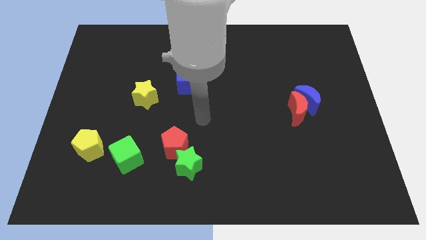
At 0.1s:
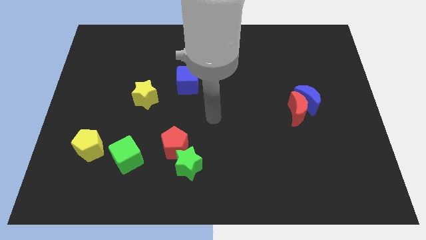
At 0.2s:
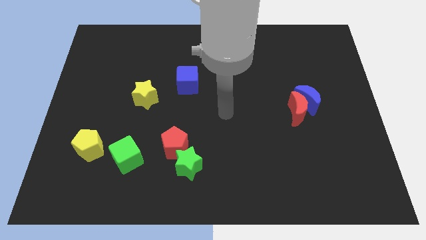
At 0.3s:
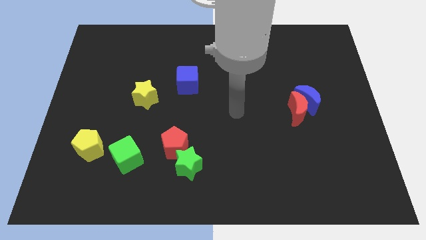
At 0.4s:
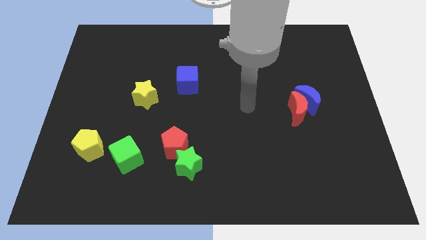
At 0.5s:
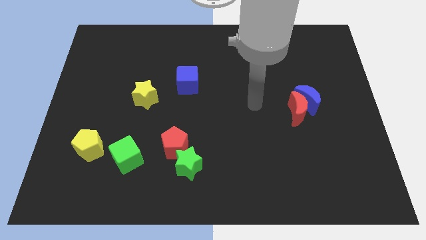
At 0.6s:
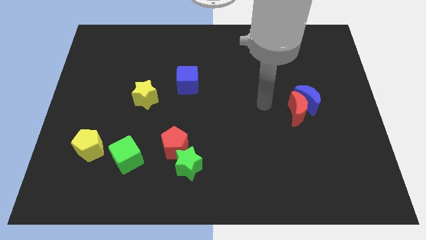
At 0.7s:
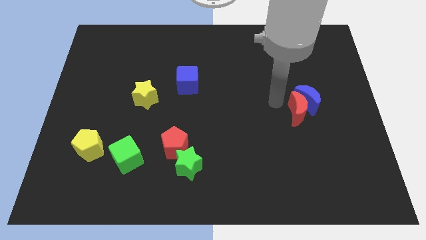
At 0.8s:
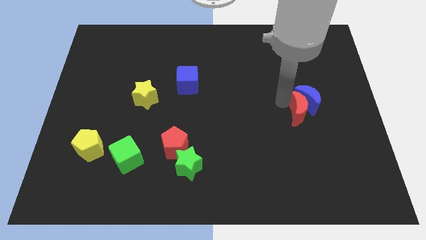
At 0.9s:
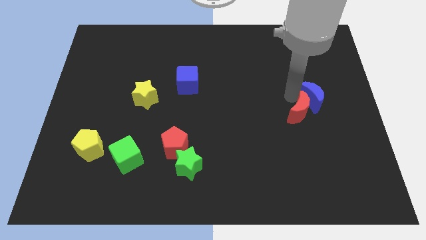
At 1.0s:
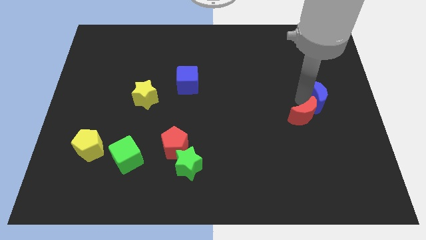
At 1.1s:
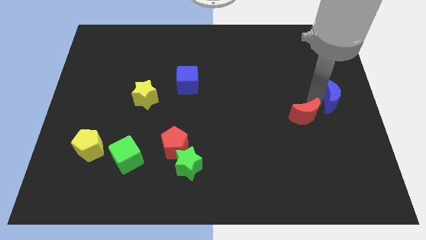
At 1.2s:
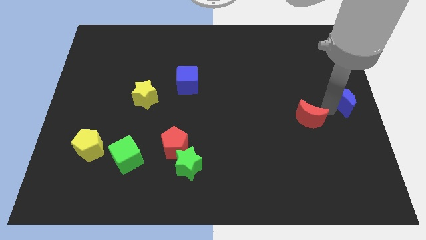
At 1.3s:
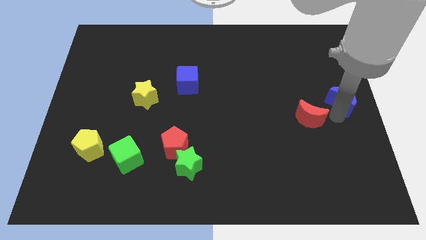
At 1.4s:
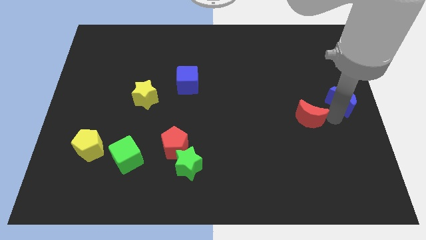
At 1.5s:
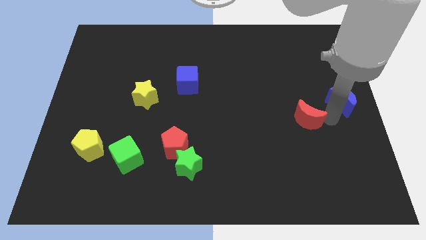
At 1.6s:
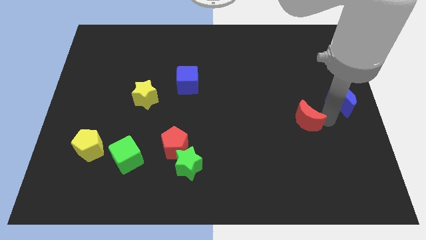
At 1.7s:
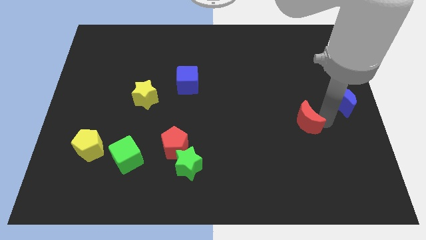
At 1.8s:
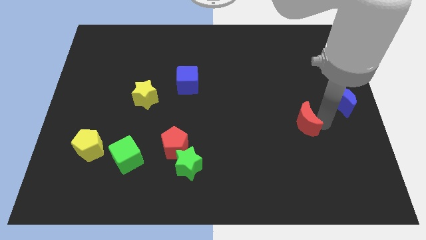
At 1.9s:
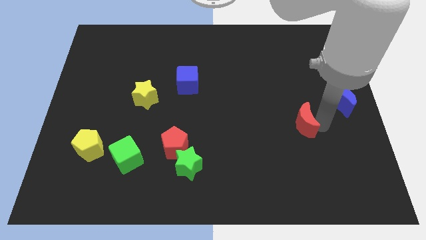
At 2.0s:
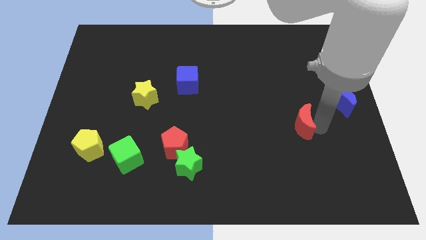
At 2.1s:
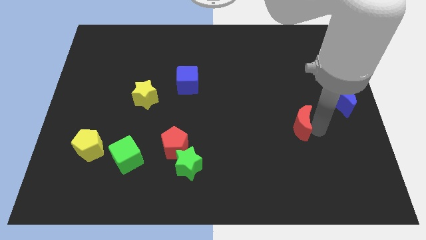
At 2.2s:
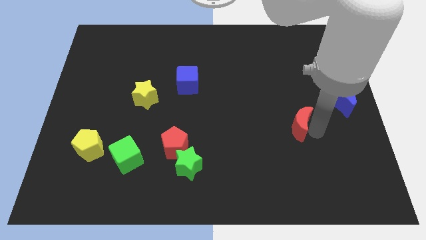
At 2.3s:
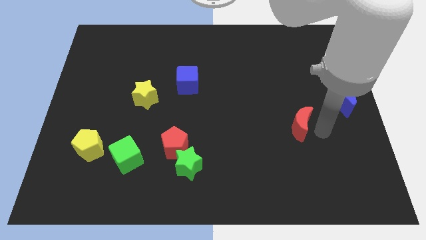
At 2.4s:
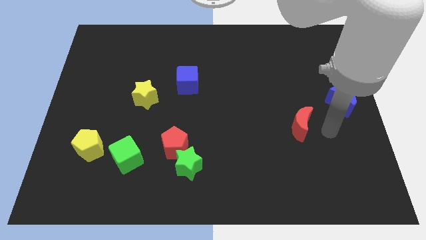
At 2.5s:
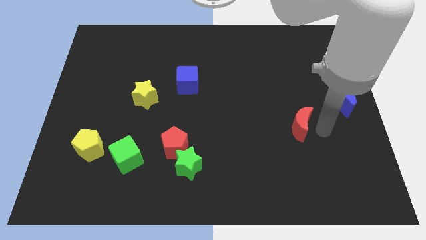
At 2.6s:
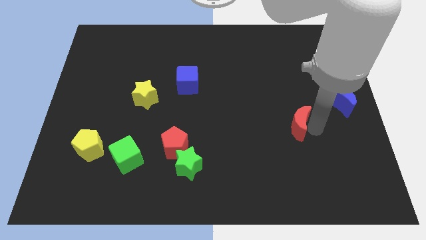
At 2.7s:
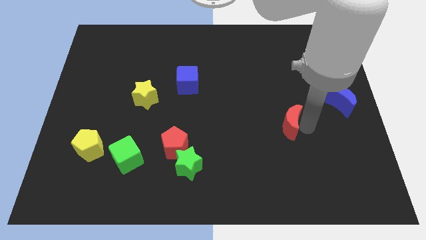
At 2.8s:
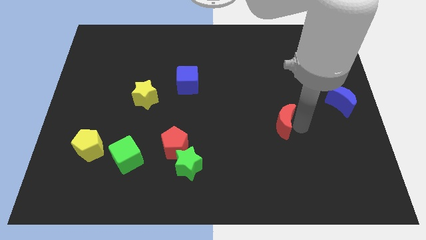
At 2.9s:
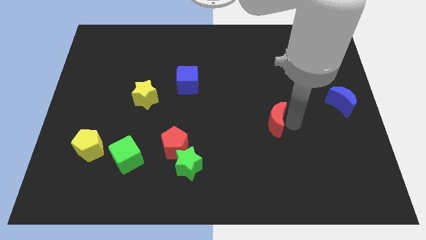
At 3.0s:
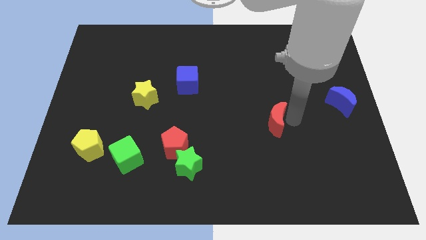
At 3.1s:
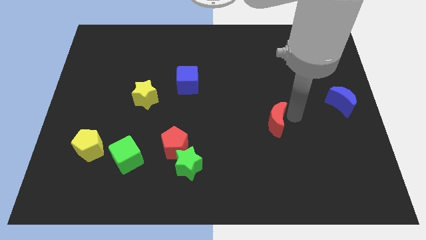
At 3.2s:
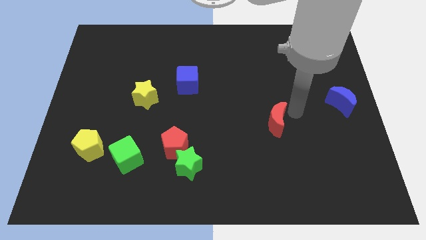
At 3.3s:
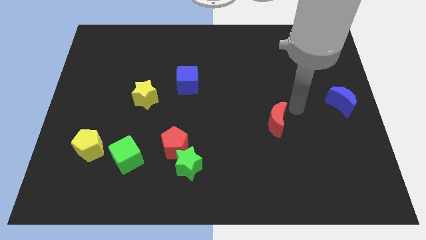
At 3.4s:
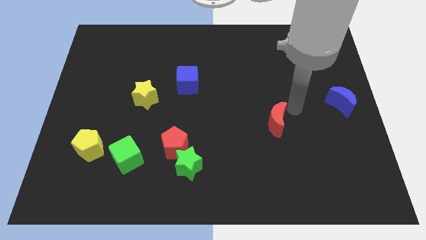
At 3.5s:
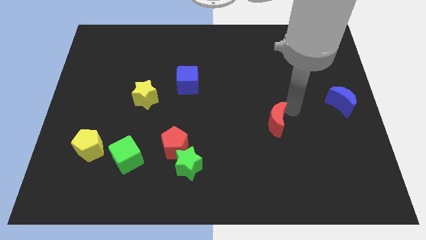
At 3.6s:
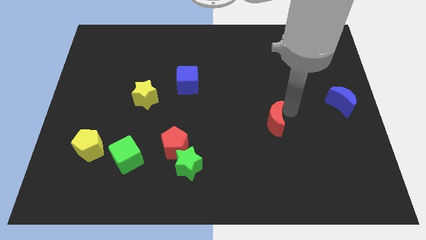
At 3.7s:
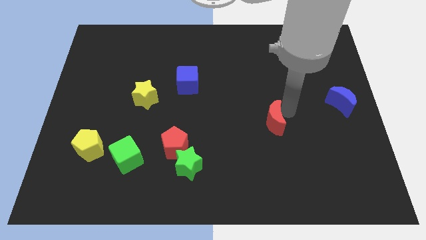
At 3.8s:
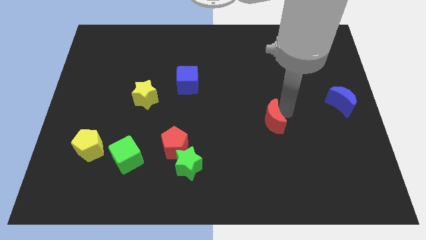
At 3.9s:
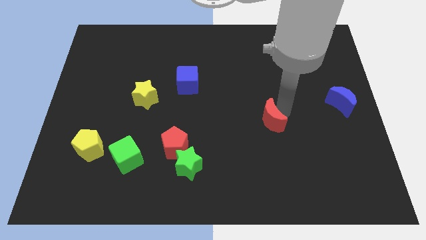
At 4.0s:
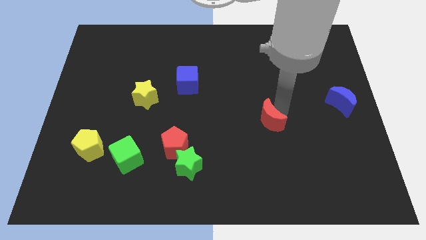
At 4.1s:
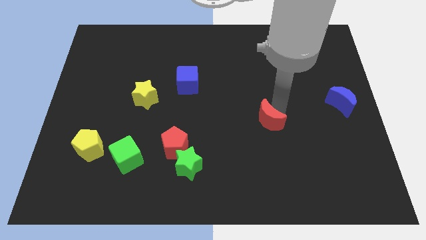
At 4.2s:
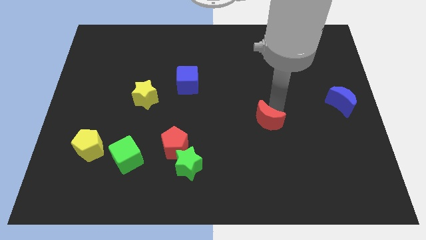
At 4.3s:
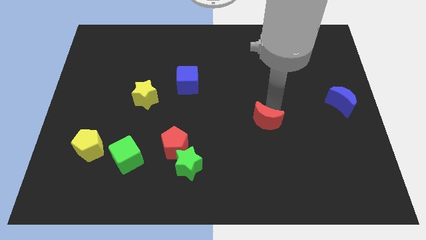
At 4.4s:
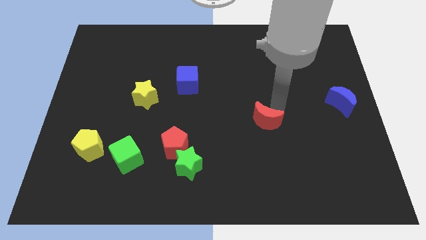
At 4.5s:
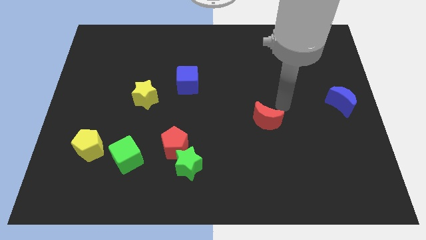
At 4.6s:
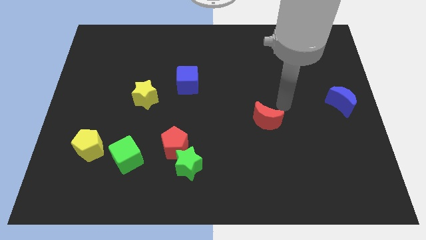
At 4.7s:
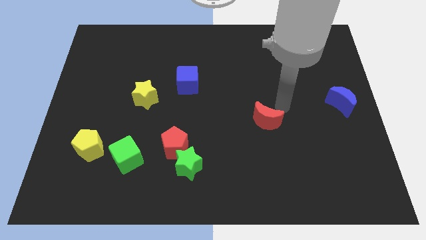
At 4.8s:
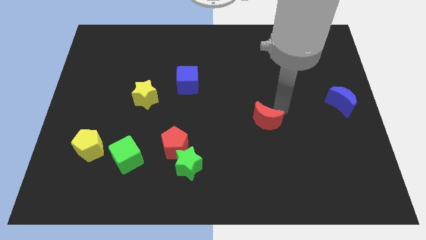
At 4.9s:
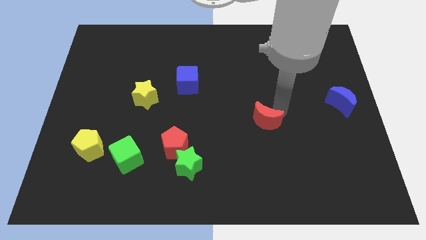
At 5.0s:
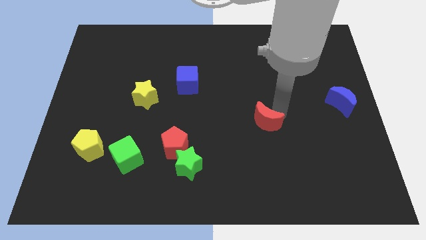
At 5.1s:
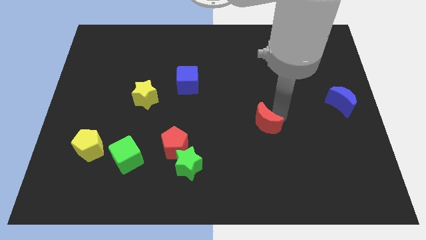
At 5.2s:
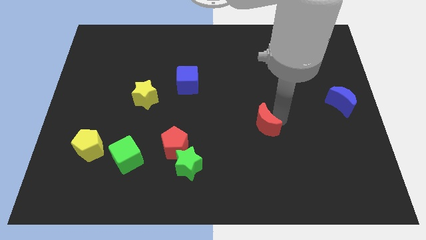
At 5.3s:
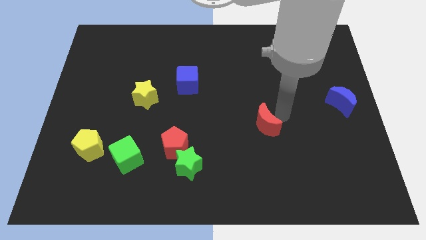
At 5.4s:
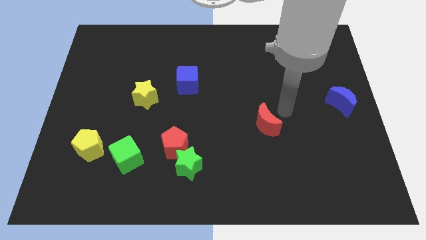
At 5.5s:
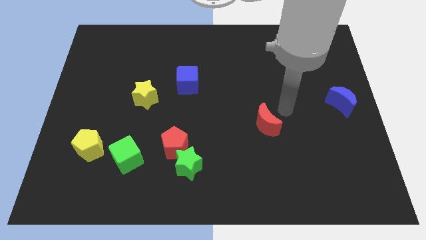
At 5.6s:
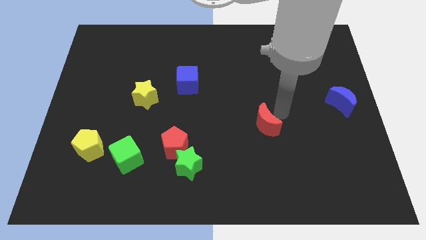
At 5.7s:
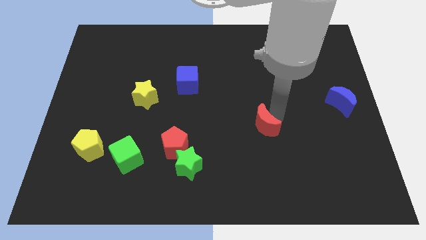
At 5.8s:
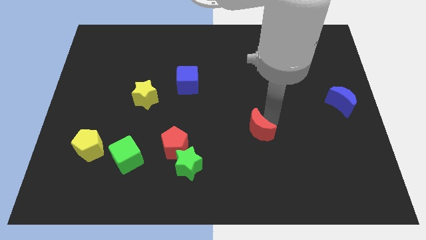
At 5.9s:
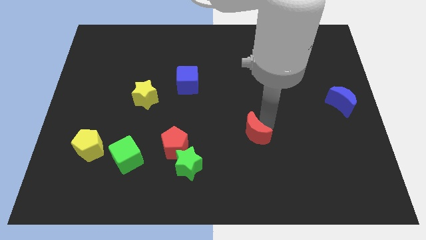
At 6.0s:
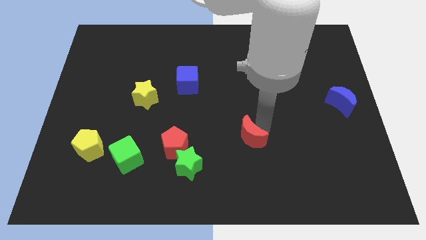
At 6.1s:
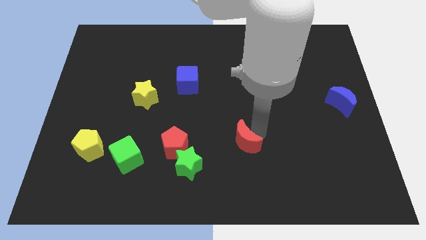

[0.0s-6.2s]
move the red moon right of the red pentagon

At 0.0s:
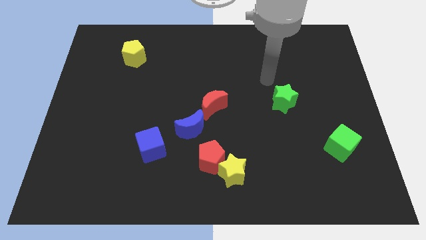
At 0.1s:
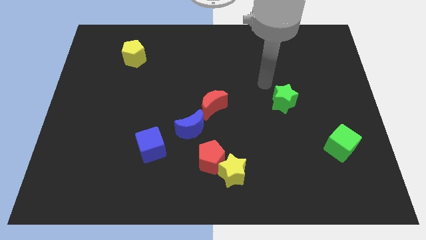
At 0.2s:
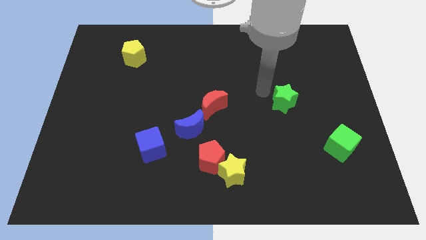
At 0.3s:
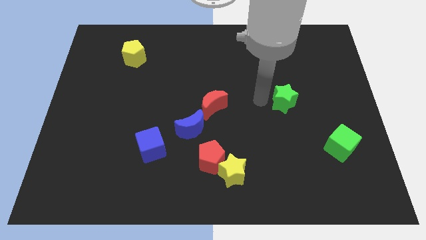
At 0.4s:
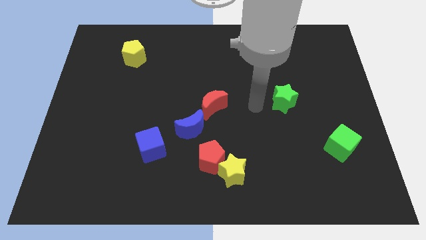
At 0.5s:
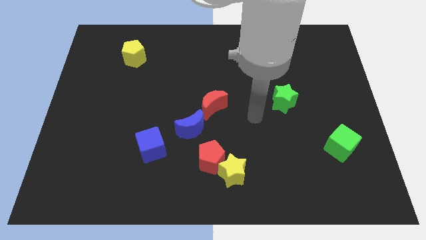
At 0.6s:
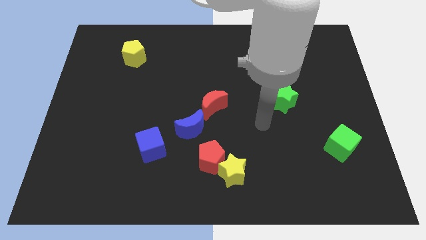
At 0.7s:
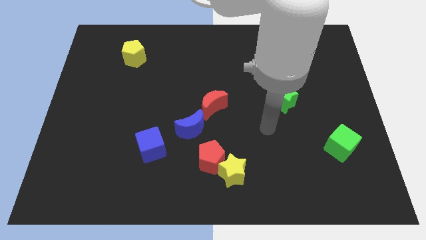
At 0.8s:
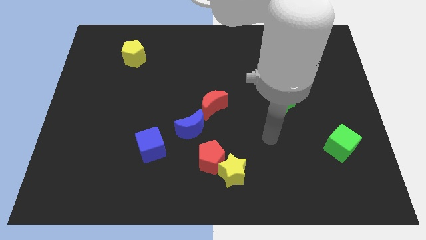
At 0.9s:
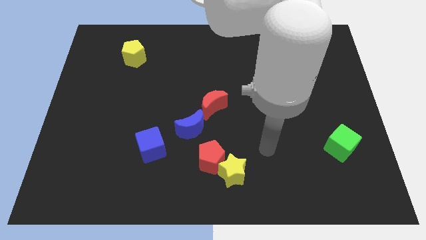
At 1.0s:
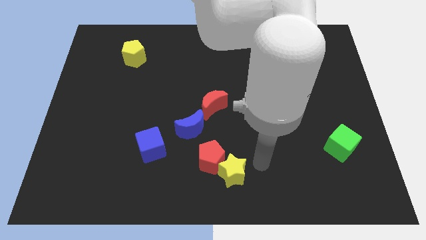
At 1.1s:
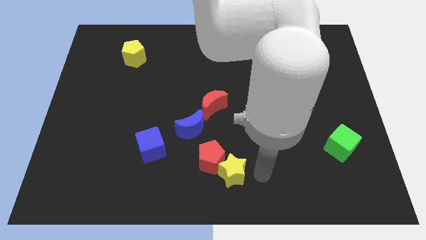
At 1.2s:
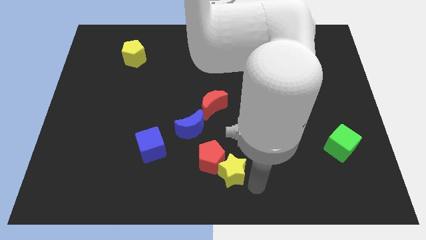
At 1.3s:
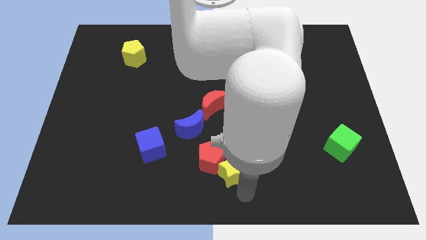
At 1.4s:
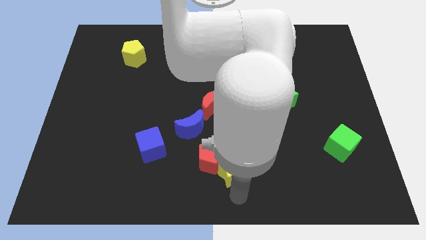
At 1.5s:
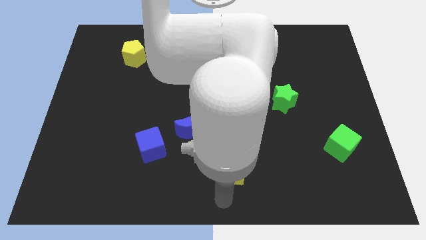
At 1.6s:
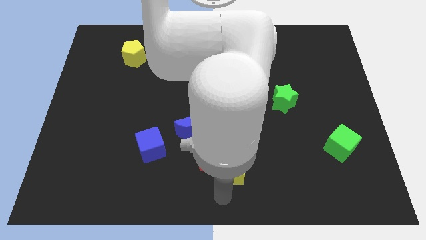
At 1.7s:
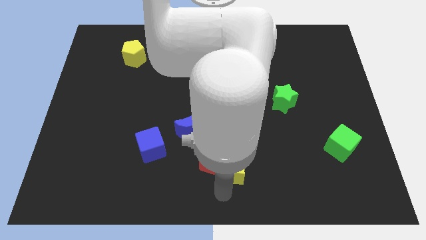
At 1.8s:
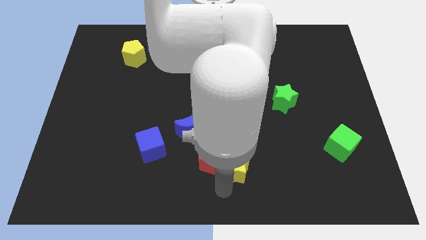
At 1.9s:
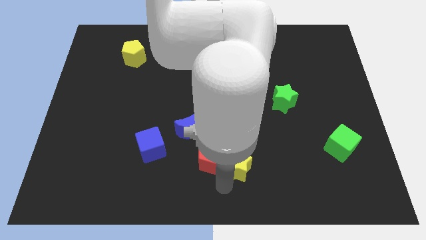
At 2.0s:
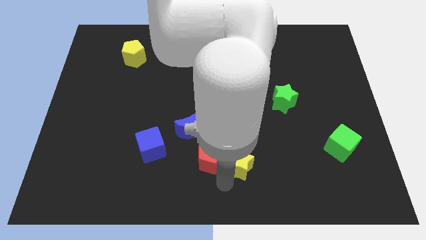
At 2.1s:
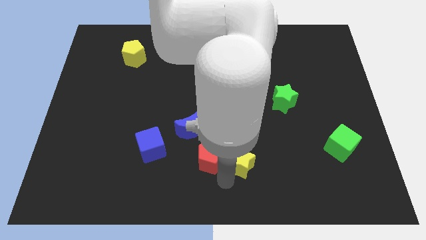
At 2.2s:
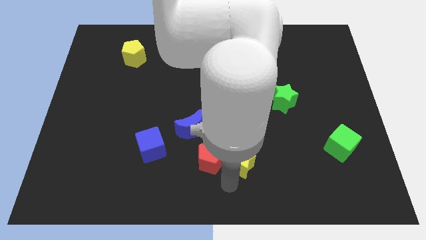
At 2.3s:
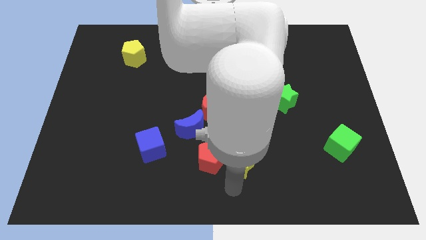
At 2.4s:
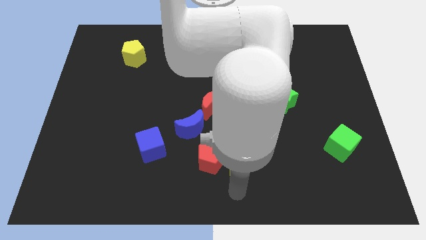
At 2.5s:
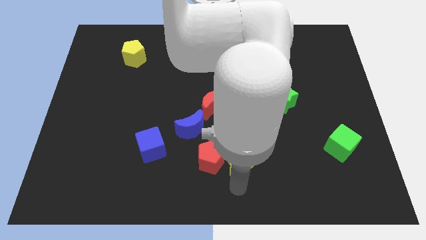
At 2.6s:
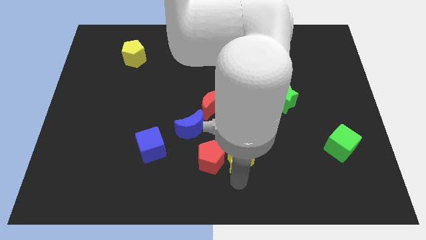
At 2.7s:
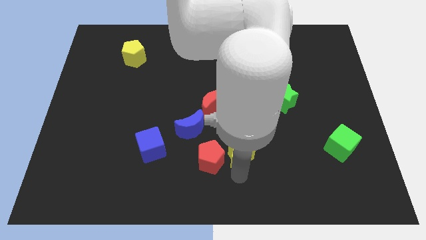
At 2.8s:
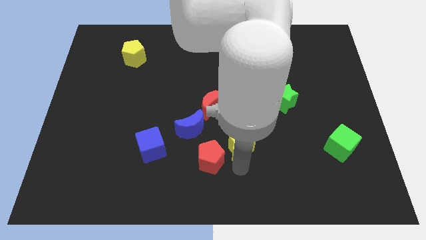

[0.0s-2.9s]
put the yellow star just right of the blue moon
